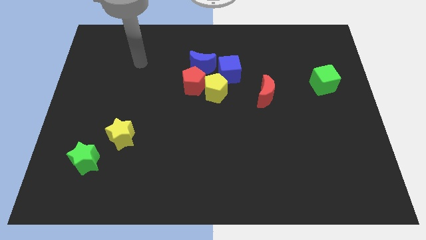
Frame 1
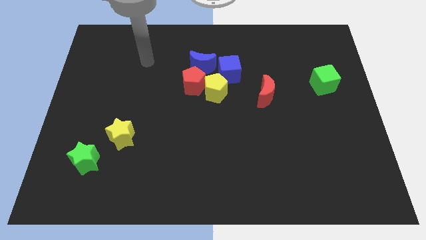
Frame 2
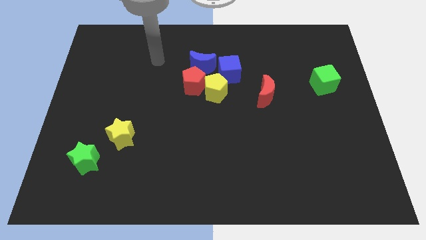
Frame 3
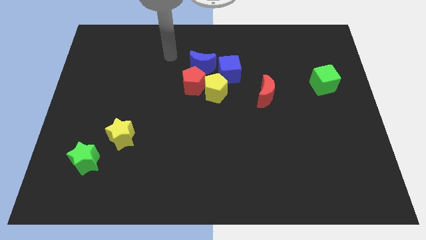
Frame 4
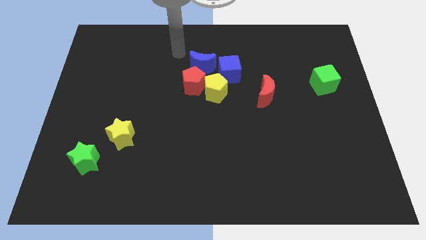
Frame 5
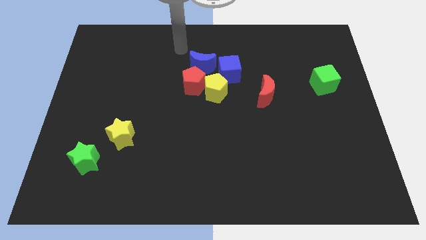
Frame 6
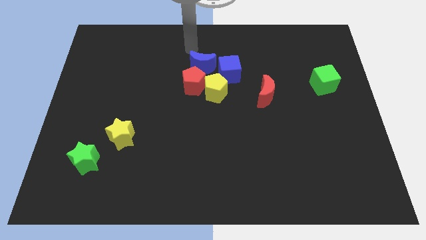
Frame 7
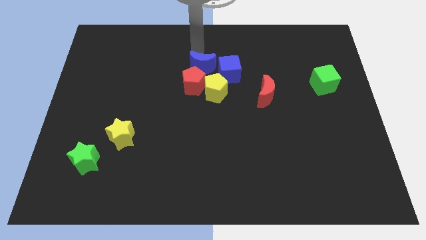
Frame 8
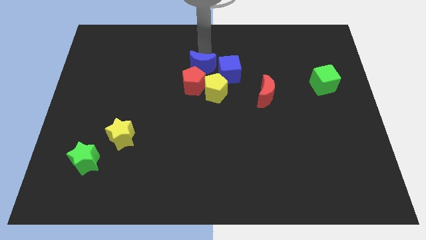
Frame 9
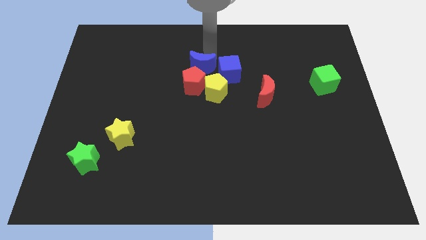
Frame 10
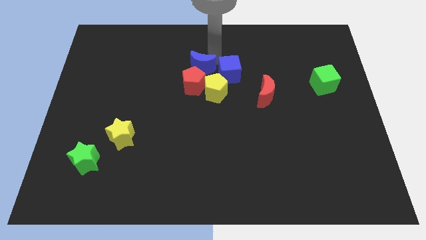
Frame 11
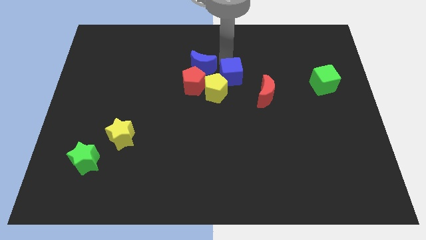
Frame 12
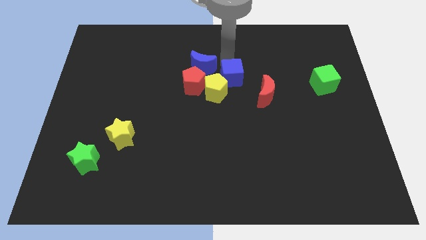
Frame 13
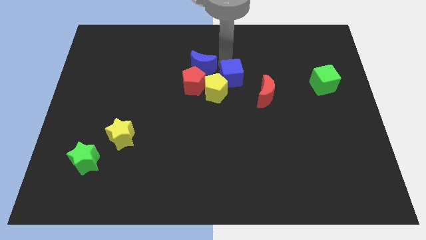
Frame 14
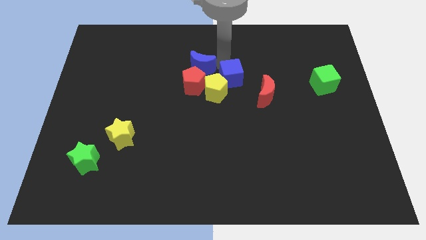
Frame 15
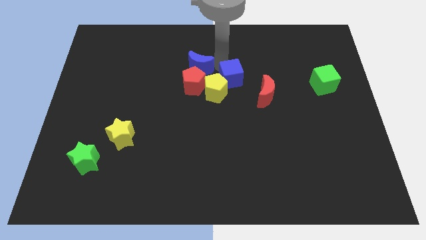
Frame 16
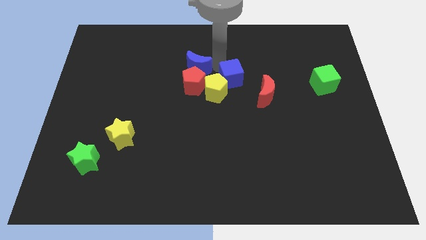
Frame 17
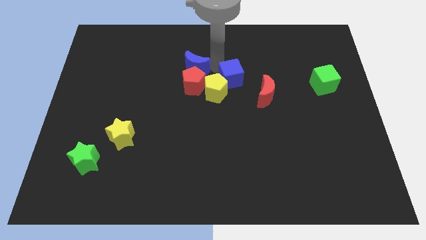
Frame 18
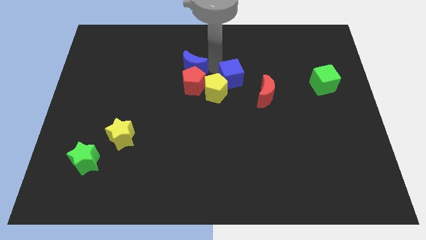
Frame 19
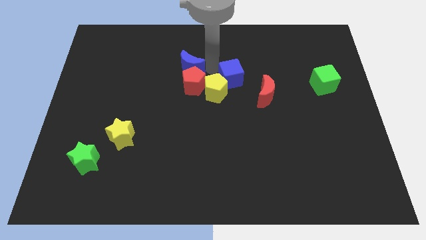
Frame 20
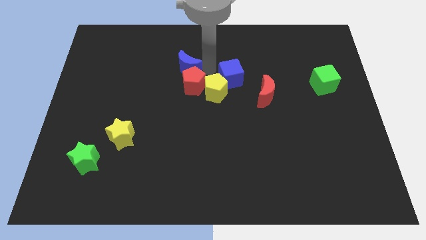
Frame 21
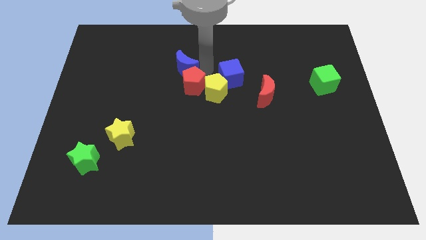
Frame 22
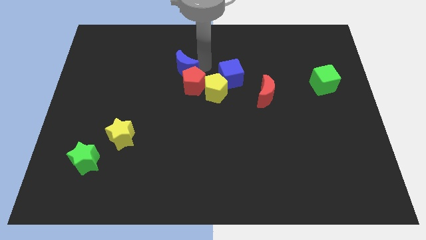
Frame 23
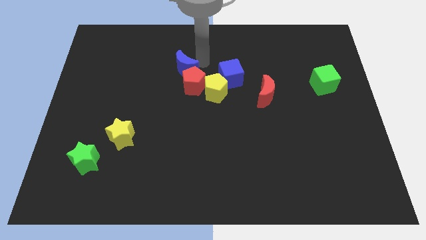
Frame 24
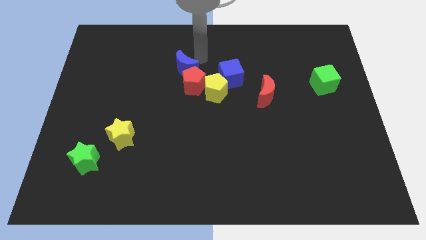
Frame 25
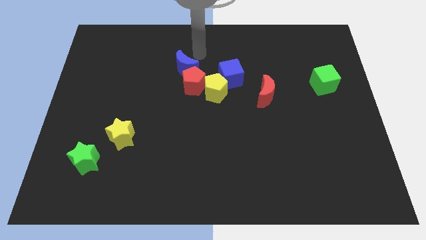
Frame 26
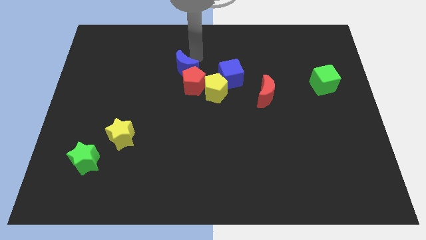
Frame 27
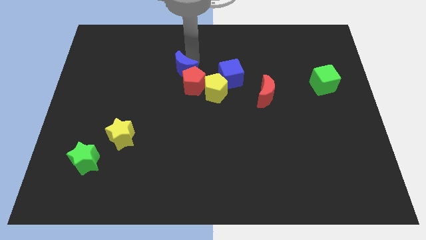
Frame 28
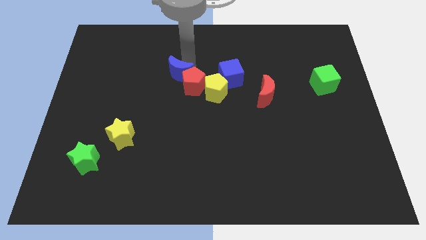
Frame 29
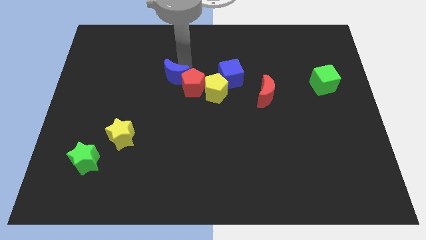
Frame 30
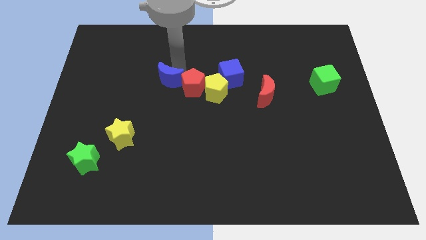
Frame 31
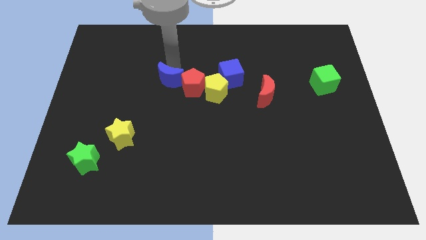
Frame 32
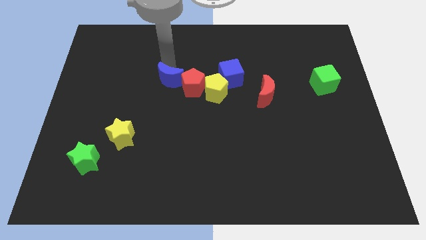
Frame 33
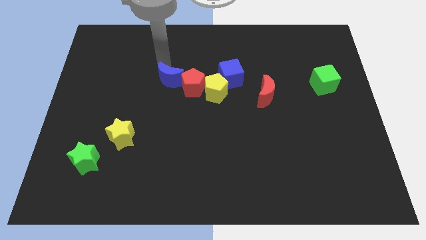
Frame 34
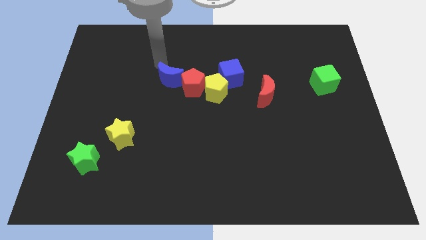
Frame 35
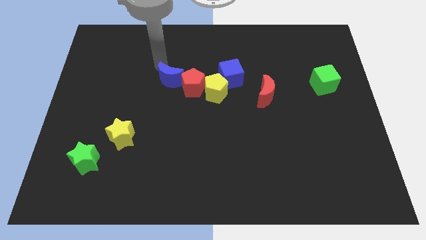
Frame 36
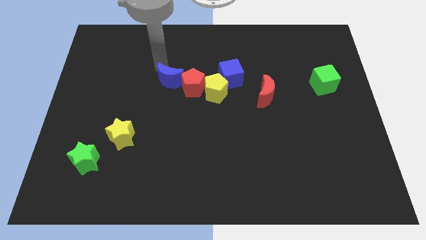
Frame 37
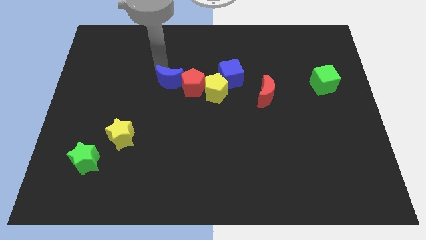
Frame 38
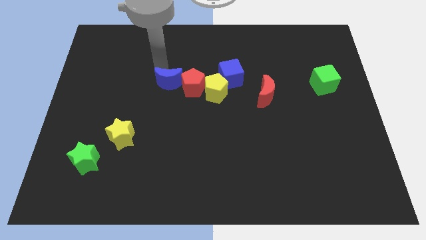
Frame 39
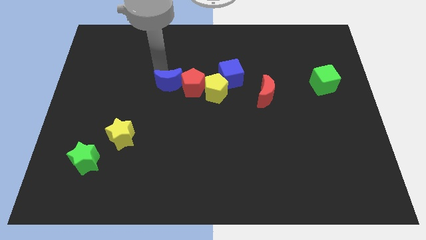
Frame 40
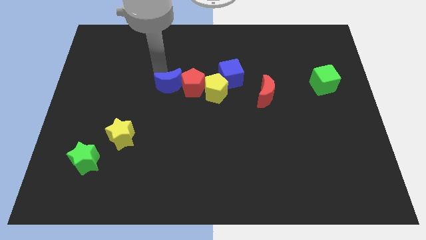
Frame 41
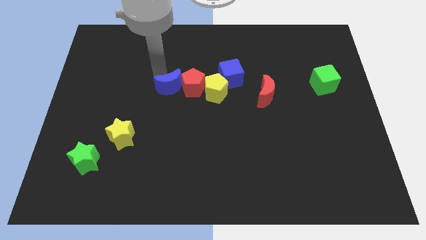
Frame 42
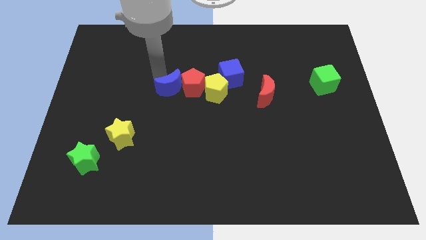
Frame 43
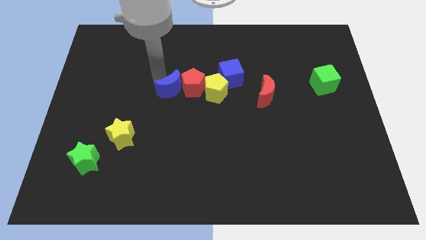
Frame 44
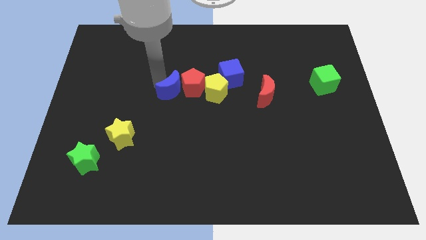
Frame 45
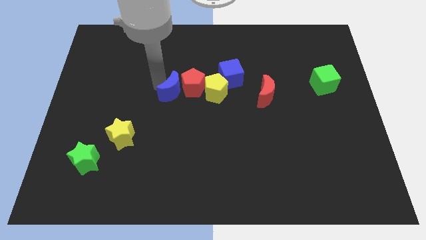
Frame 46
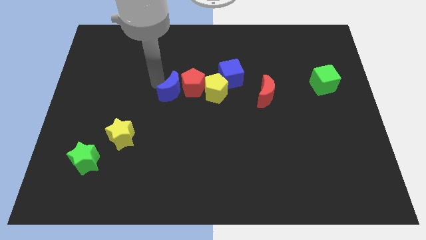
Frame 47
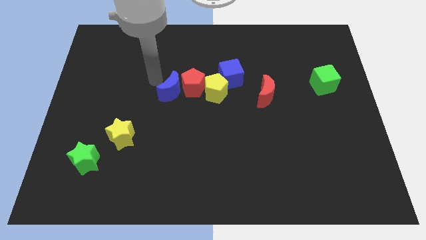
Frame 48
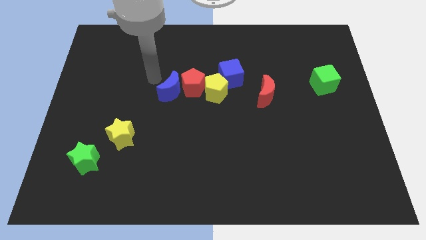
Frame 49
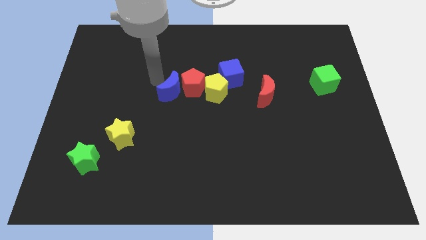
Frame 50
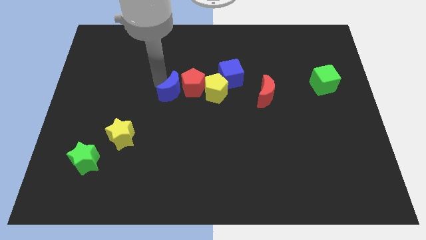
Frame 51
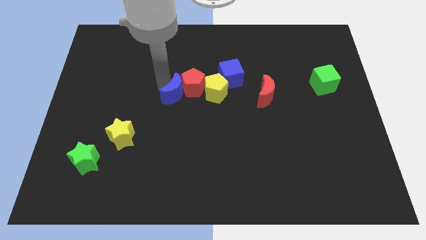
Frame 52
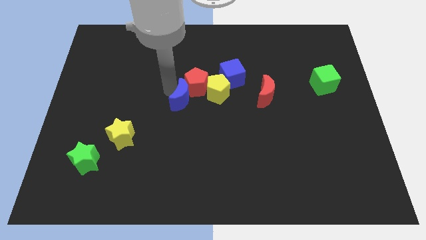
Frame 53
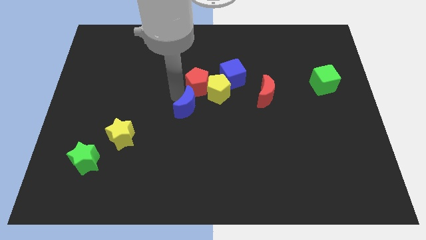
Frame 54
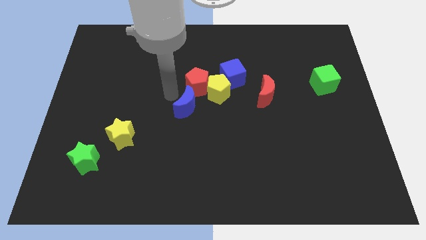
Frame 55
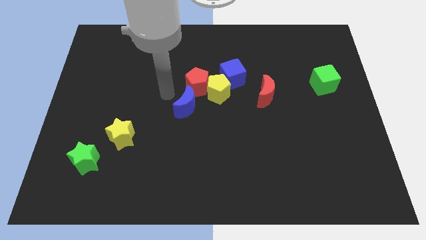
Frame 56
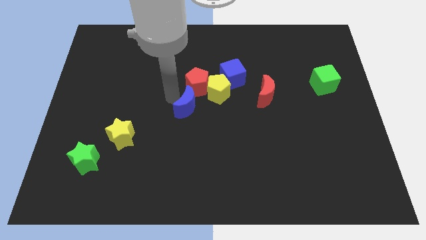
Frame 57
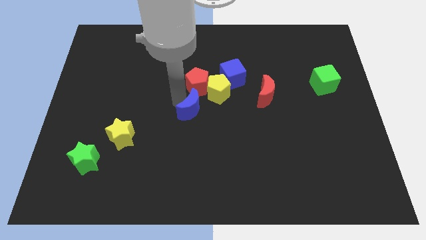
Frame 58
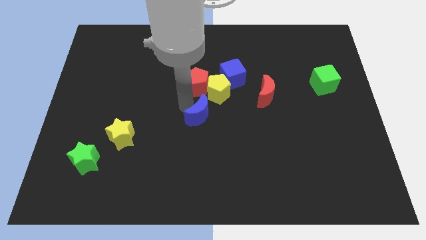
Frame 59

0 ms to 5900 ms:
move the blue moon below the yellow pentagon

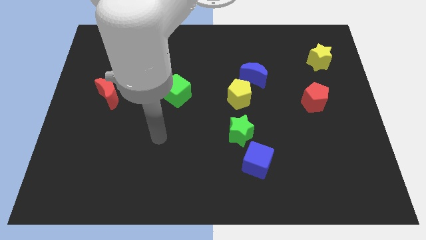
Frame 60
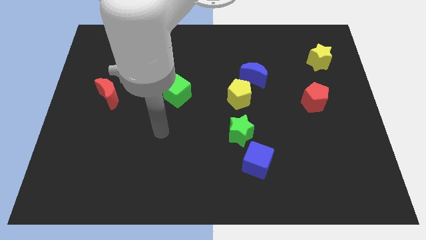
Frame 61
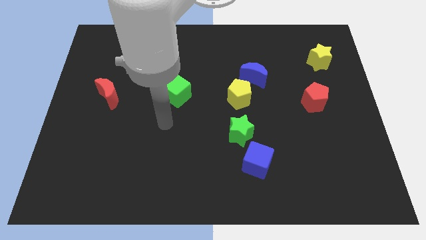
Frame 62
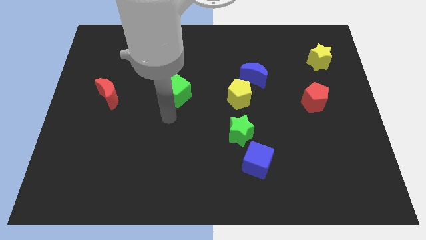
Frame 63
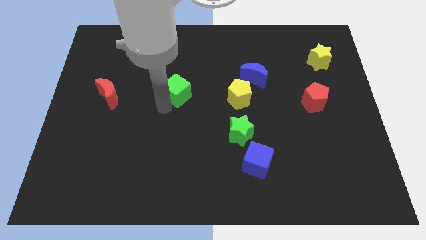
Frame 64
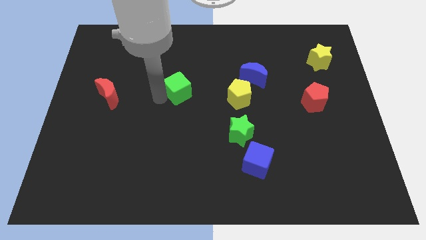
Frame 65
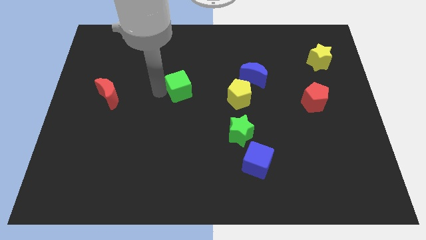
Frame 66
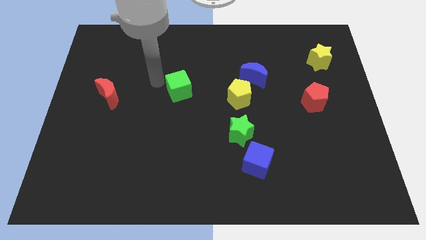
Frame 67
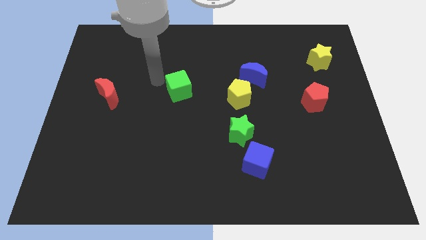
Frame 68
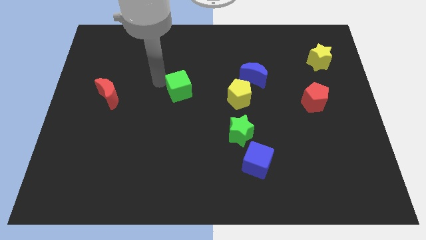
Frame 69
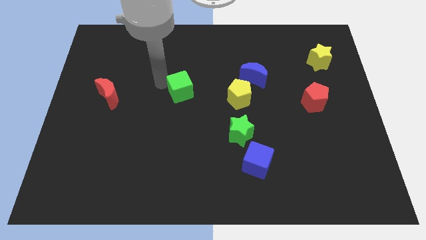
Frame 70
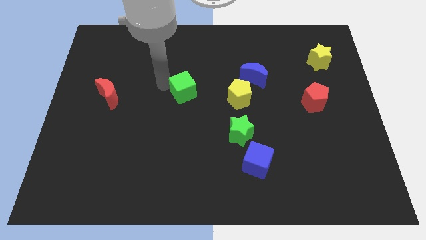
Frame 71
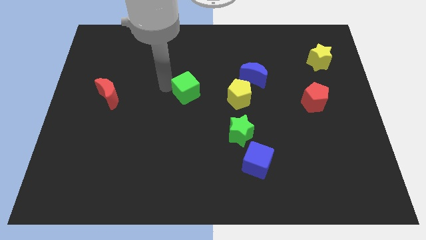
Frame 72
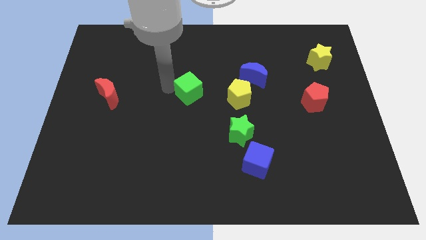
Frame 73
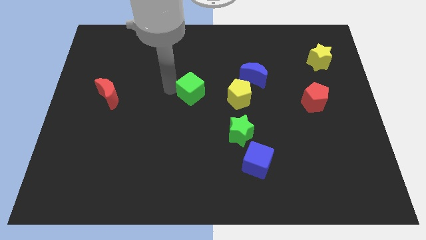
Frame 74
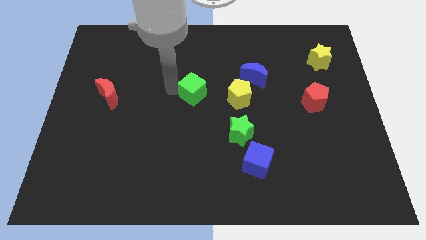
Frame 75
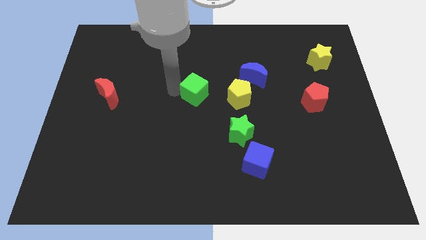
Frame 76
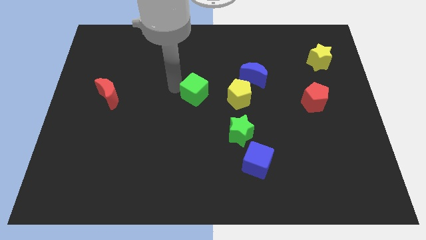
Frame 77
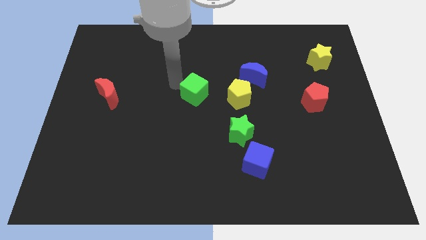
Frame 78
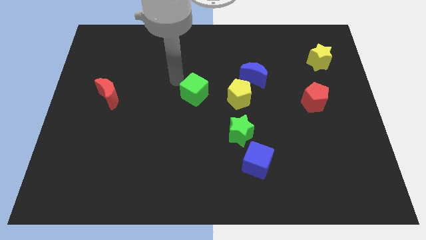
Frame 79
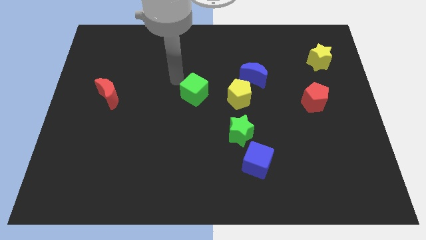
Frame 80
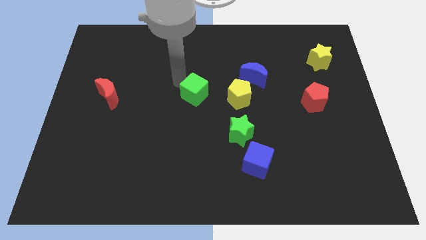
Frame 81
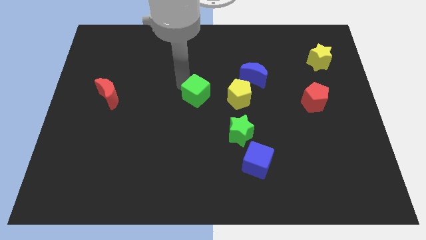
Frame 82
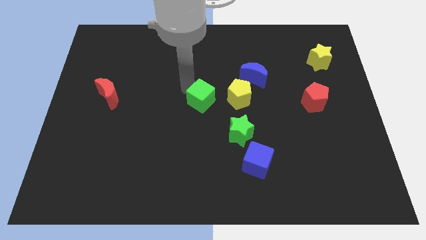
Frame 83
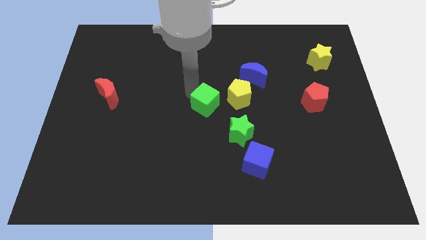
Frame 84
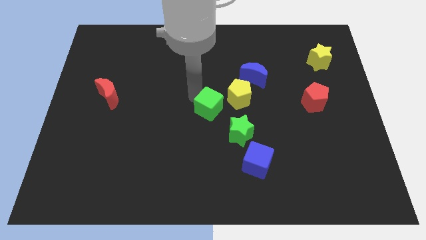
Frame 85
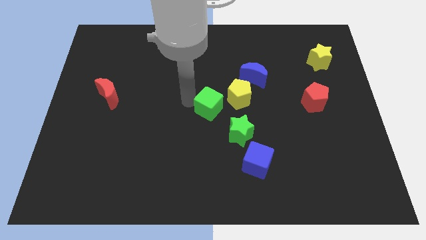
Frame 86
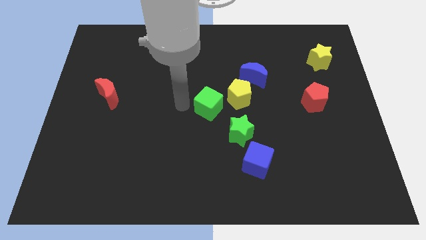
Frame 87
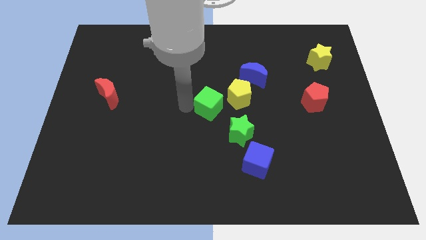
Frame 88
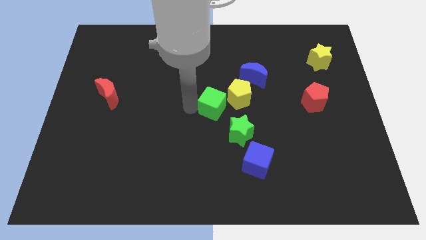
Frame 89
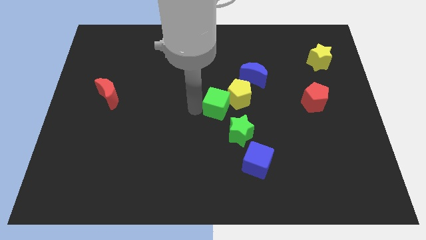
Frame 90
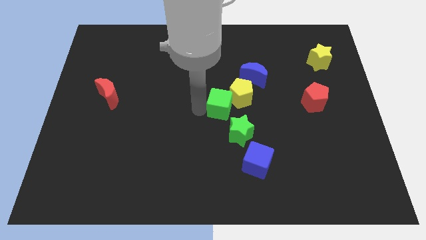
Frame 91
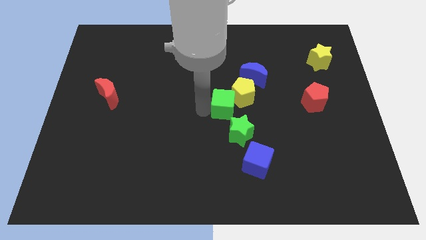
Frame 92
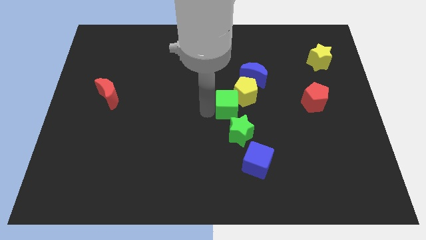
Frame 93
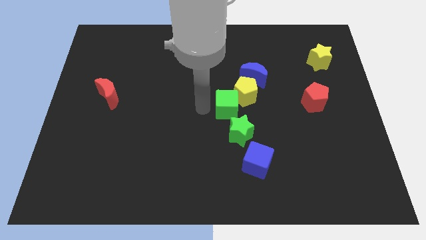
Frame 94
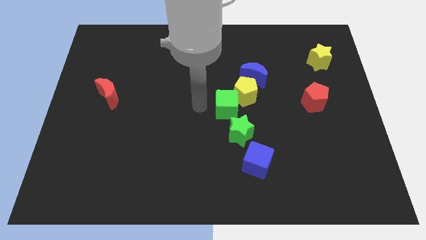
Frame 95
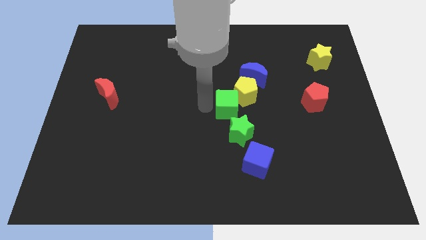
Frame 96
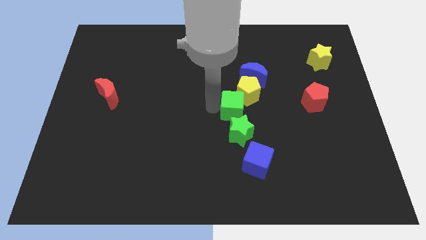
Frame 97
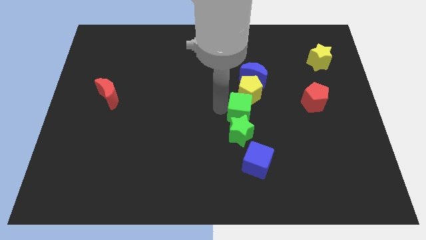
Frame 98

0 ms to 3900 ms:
push the green cube to the bottom side of the blue moon
